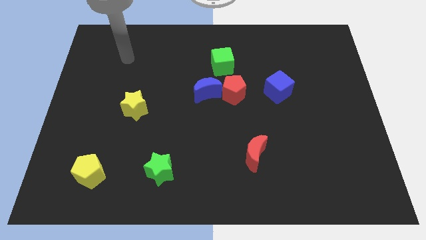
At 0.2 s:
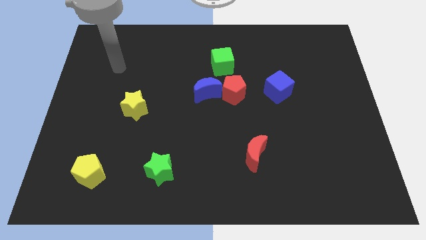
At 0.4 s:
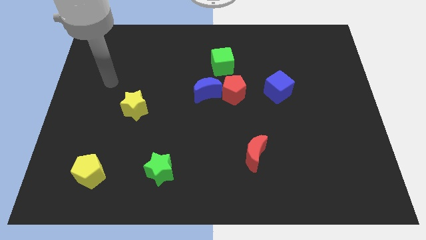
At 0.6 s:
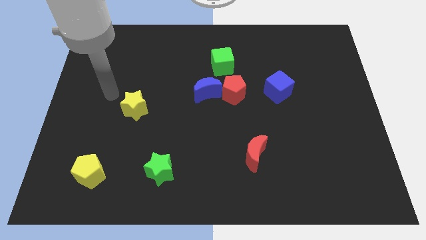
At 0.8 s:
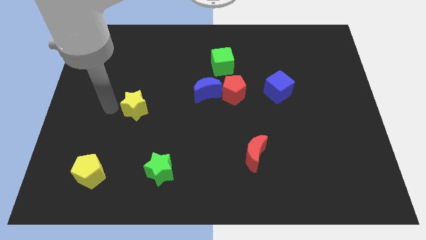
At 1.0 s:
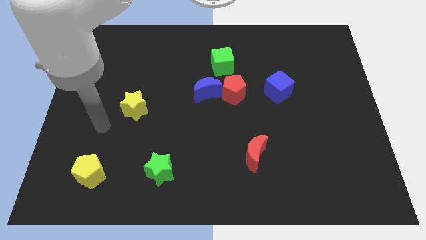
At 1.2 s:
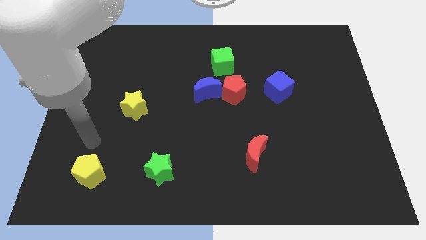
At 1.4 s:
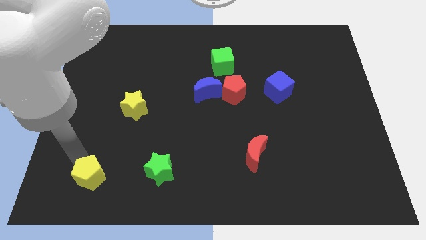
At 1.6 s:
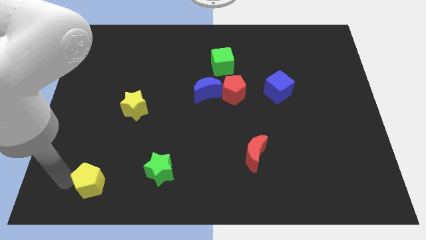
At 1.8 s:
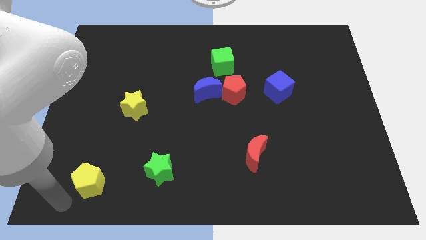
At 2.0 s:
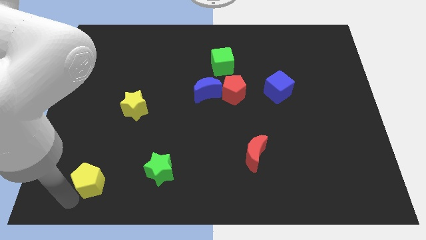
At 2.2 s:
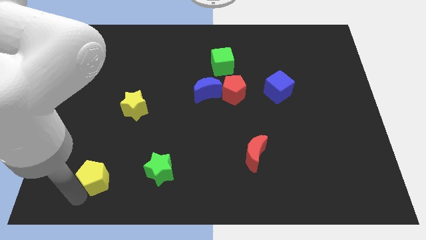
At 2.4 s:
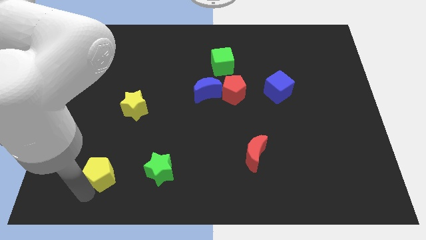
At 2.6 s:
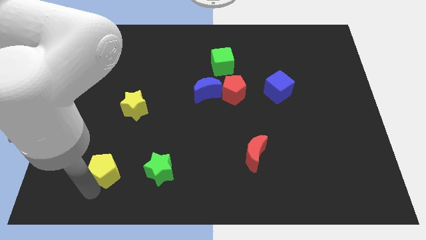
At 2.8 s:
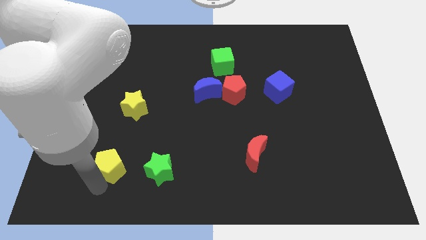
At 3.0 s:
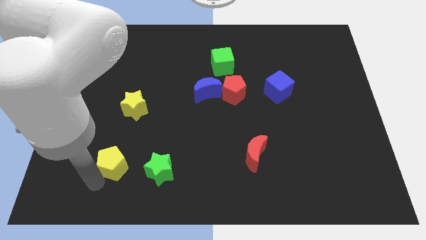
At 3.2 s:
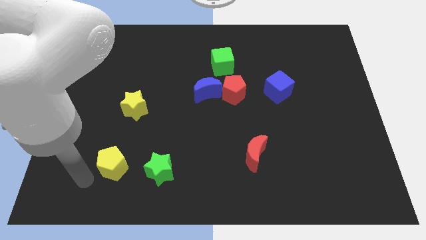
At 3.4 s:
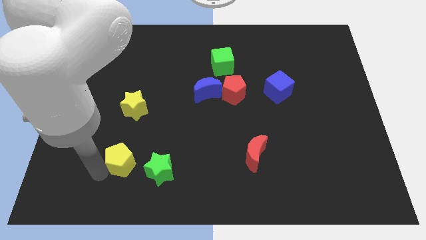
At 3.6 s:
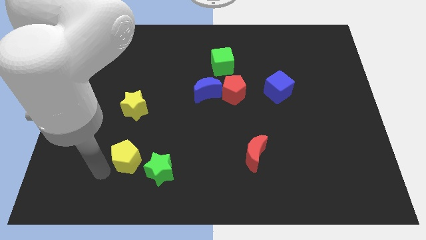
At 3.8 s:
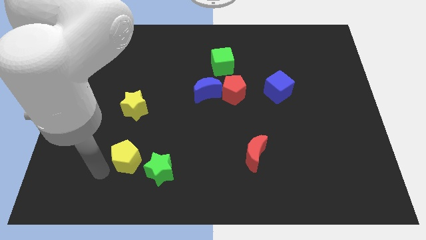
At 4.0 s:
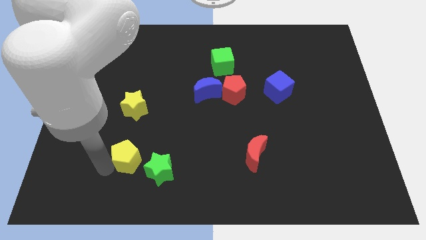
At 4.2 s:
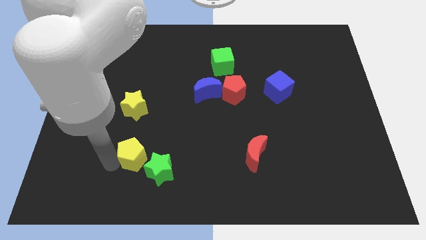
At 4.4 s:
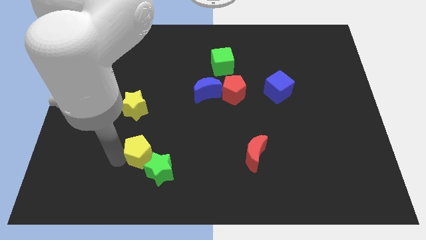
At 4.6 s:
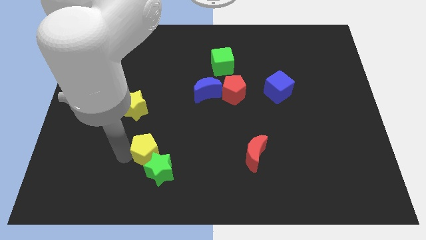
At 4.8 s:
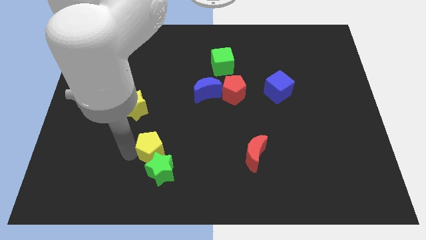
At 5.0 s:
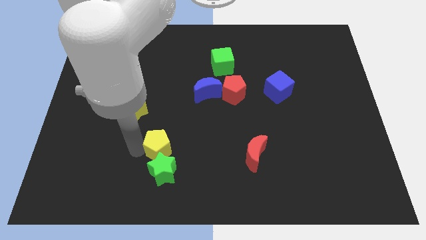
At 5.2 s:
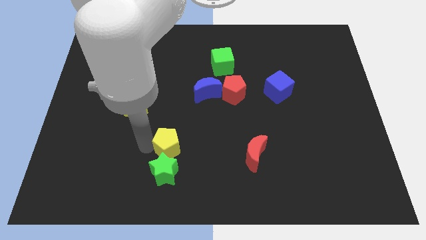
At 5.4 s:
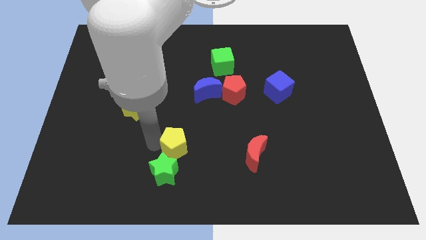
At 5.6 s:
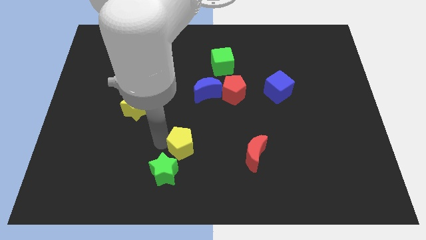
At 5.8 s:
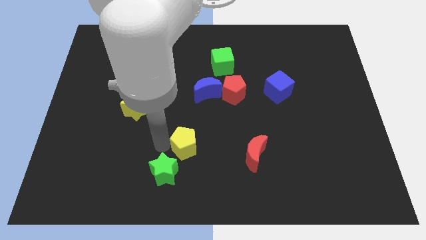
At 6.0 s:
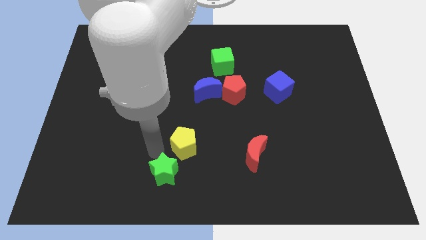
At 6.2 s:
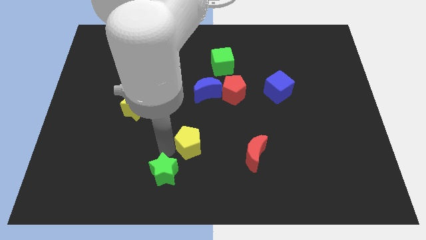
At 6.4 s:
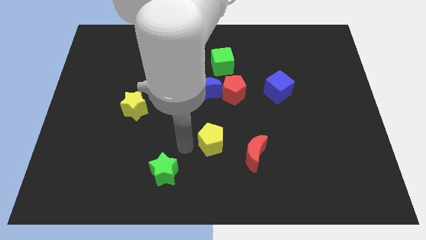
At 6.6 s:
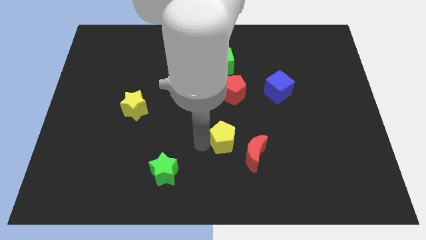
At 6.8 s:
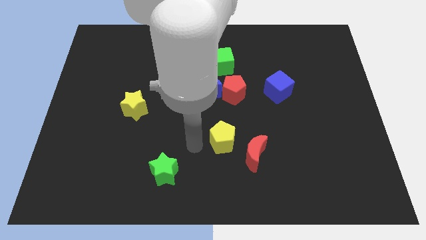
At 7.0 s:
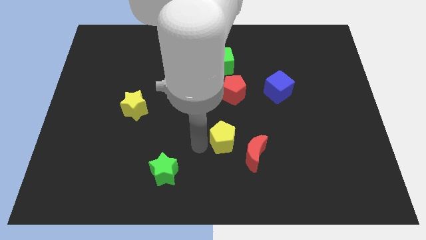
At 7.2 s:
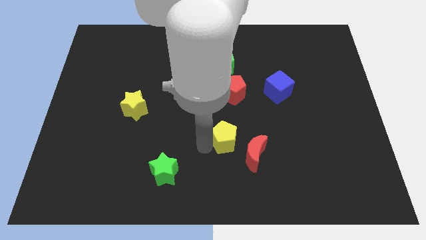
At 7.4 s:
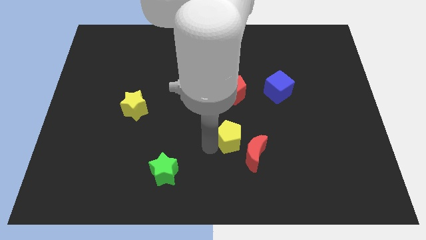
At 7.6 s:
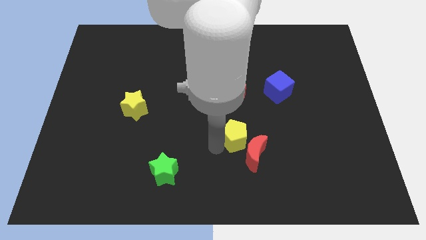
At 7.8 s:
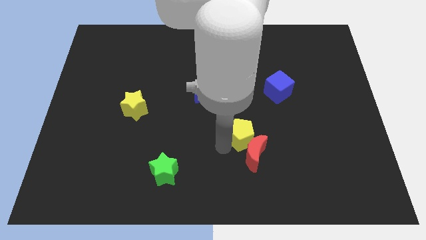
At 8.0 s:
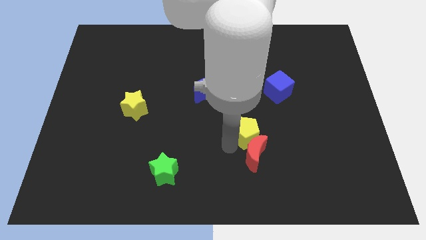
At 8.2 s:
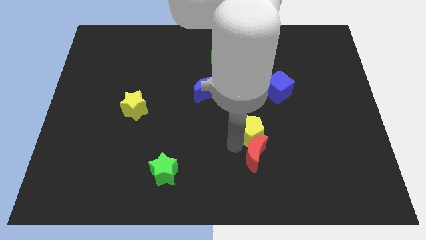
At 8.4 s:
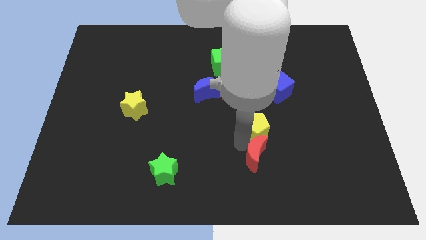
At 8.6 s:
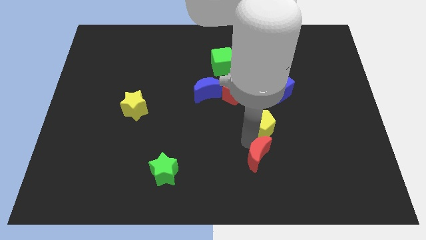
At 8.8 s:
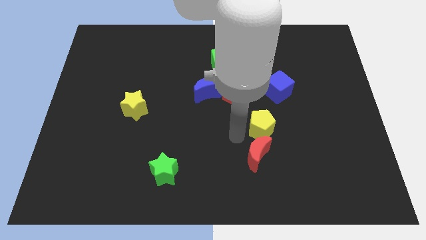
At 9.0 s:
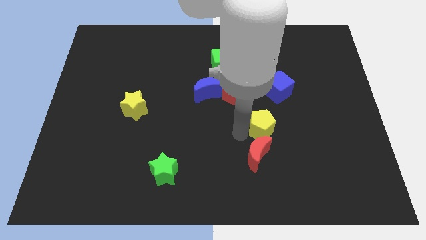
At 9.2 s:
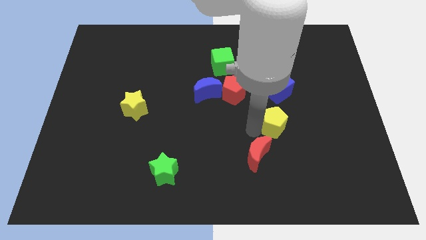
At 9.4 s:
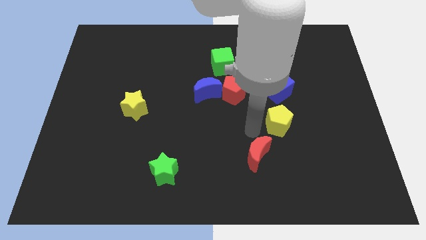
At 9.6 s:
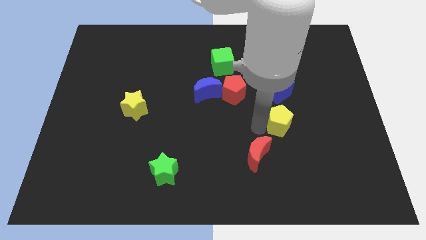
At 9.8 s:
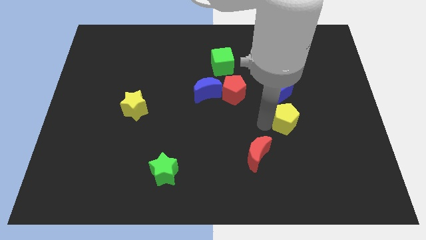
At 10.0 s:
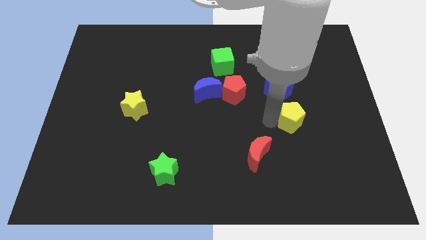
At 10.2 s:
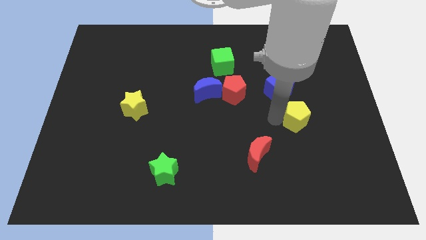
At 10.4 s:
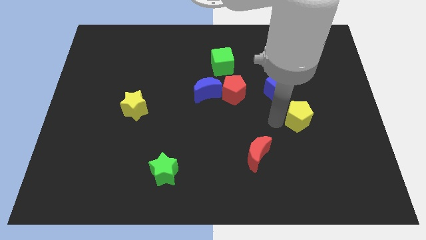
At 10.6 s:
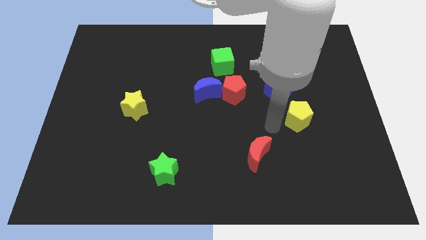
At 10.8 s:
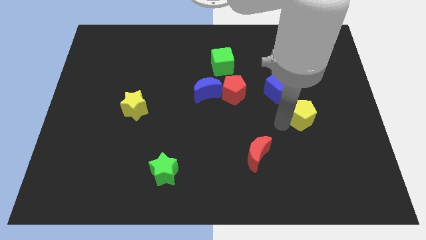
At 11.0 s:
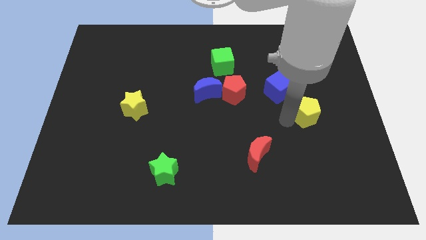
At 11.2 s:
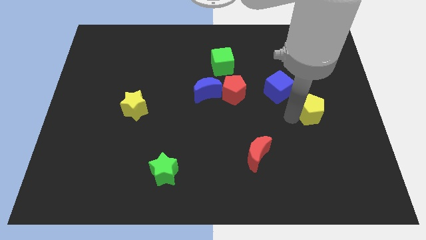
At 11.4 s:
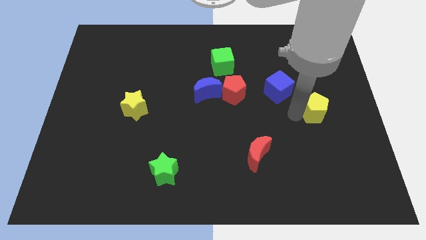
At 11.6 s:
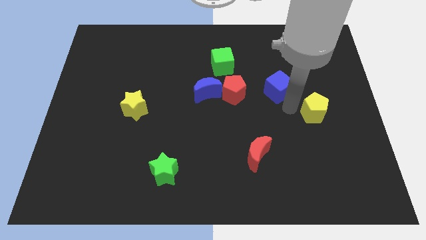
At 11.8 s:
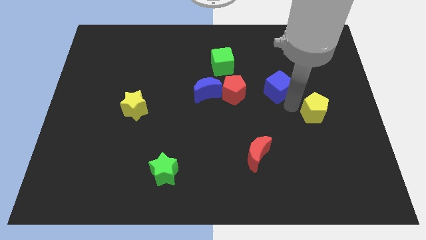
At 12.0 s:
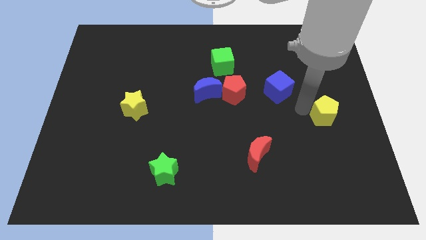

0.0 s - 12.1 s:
push the yellow pentagon to the right side

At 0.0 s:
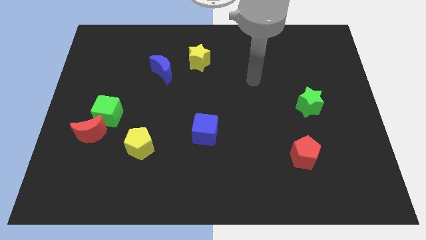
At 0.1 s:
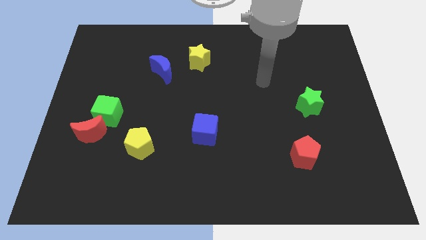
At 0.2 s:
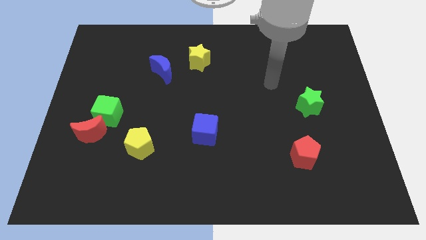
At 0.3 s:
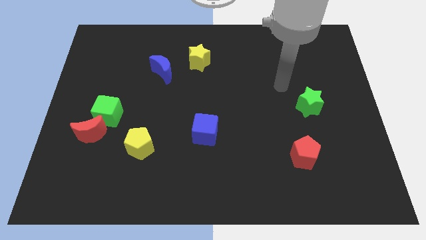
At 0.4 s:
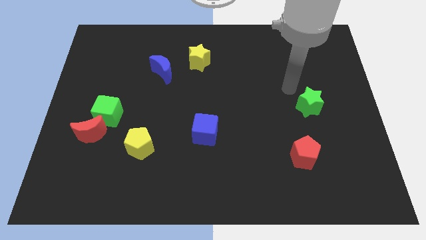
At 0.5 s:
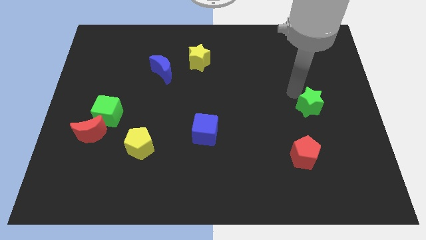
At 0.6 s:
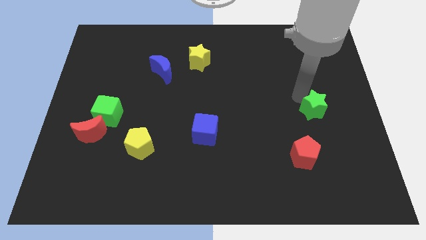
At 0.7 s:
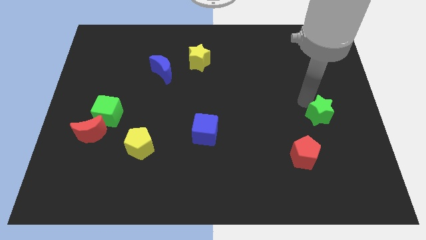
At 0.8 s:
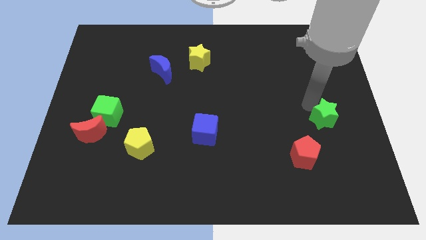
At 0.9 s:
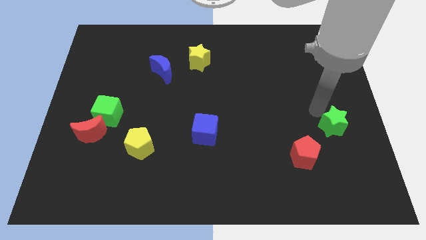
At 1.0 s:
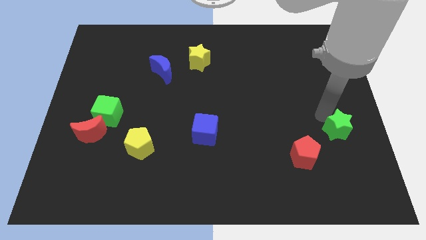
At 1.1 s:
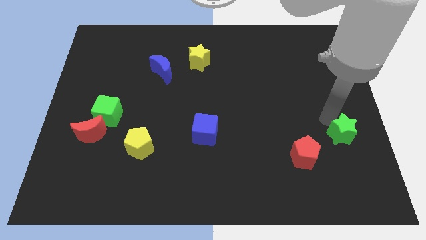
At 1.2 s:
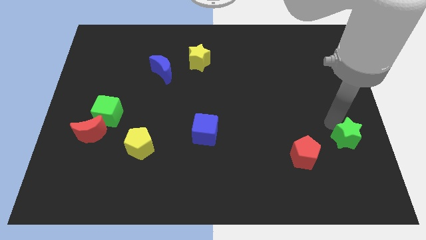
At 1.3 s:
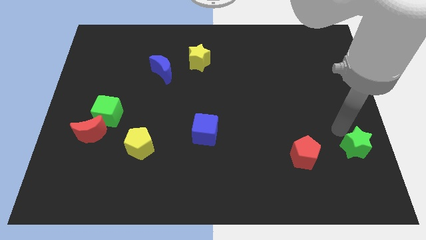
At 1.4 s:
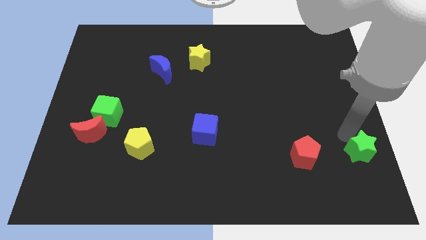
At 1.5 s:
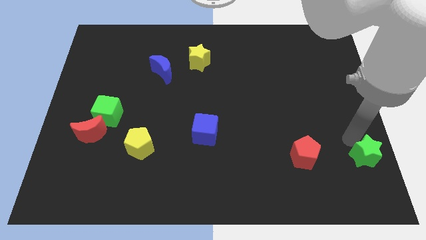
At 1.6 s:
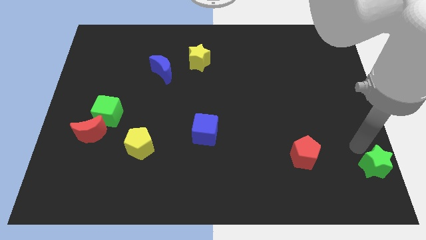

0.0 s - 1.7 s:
slide the green star to the bottom right corner
